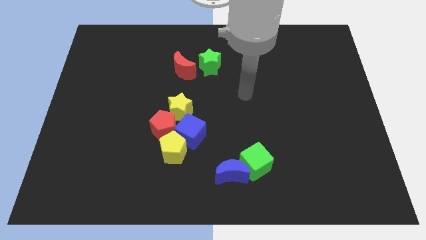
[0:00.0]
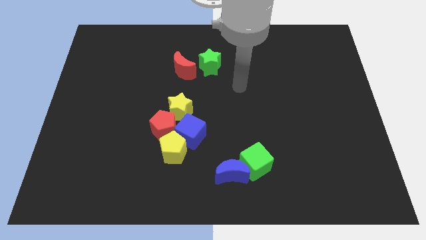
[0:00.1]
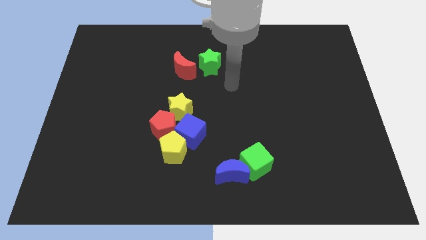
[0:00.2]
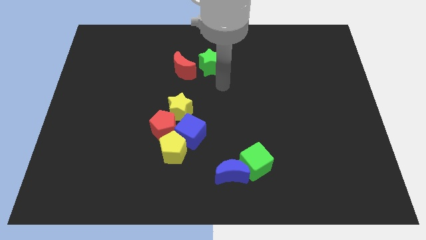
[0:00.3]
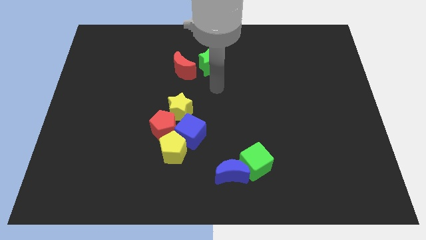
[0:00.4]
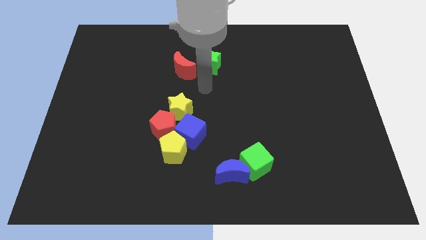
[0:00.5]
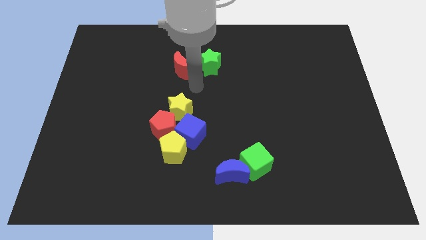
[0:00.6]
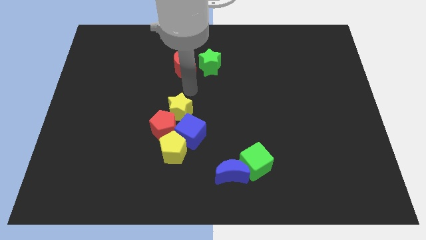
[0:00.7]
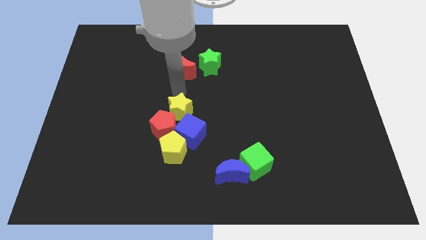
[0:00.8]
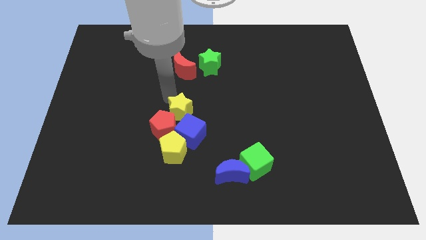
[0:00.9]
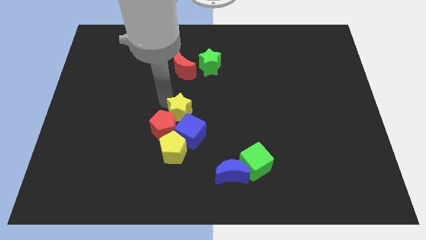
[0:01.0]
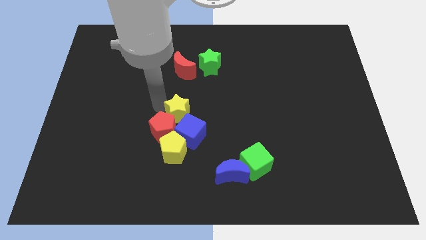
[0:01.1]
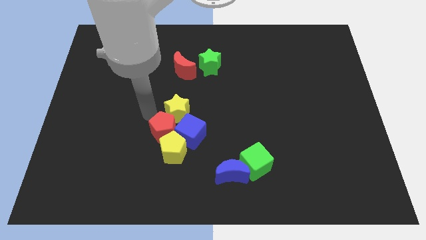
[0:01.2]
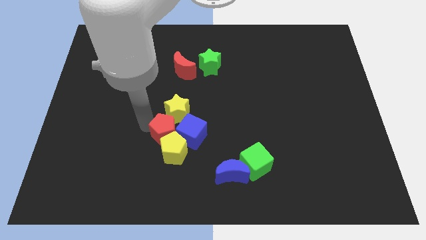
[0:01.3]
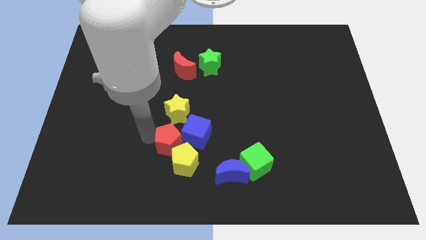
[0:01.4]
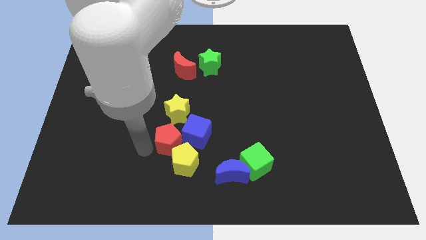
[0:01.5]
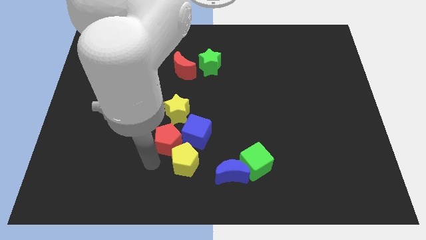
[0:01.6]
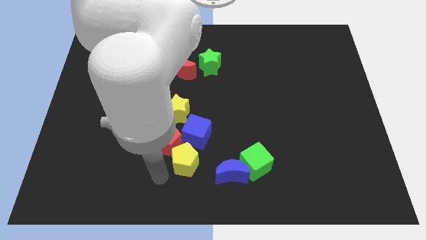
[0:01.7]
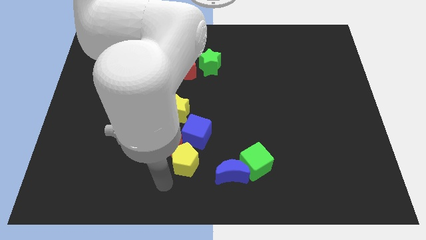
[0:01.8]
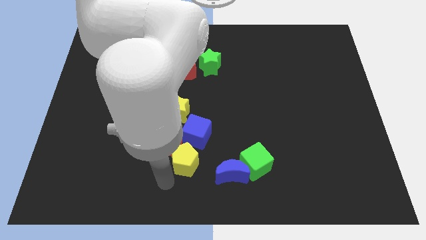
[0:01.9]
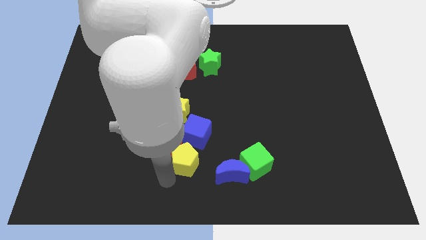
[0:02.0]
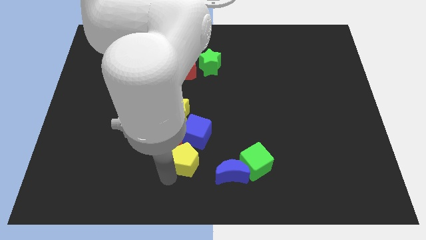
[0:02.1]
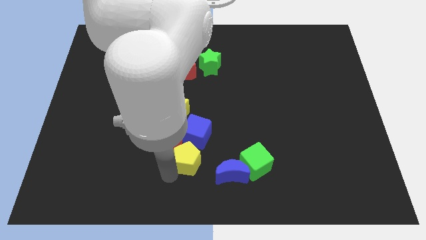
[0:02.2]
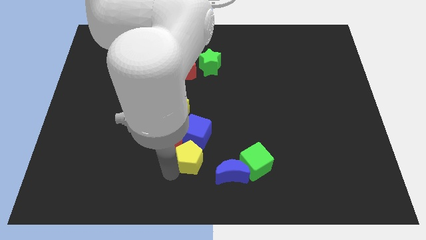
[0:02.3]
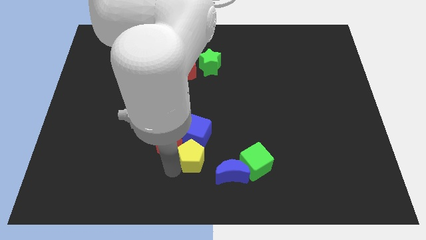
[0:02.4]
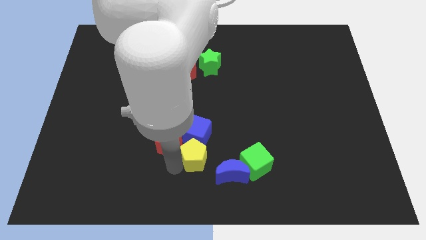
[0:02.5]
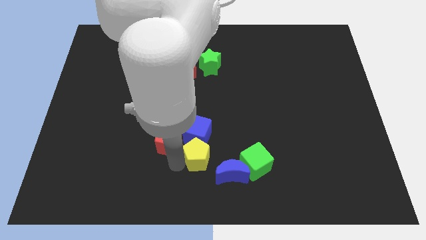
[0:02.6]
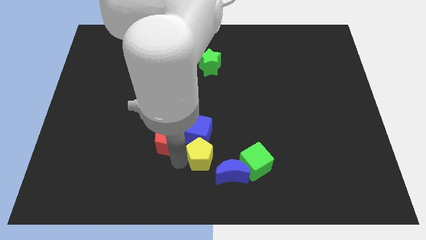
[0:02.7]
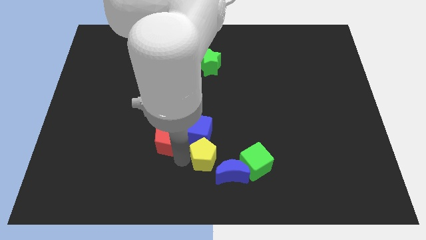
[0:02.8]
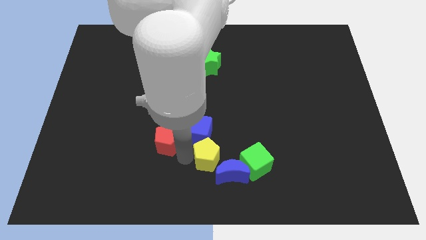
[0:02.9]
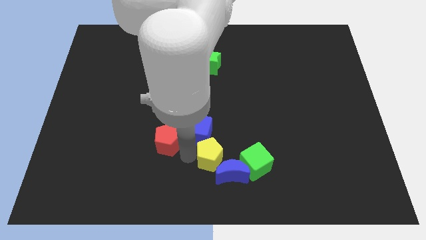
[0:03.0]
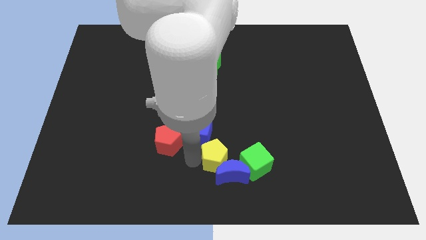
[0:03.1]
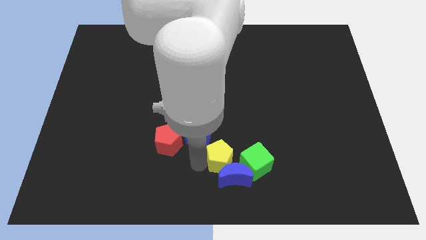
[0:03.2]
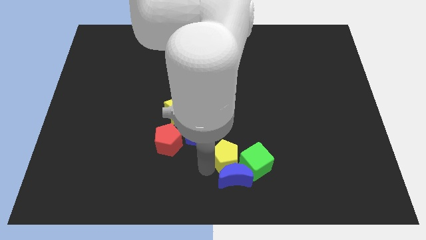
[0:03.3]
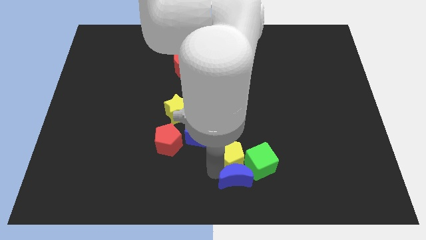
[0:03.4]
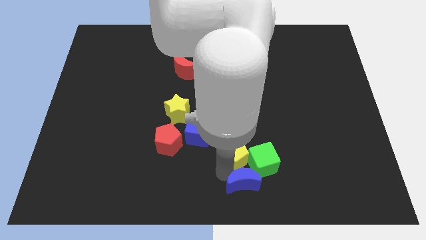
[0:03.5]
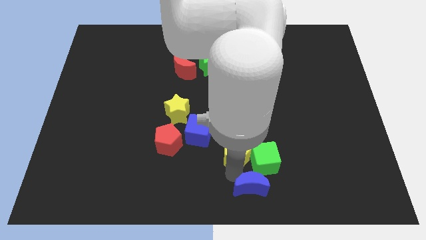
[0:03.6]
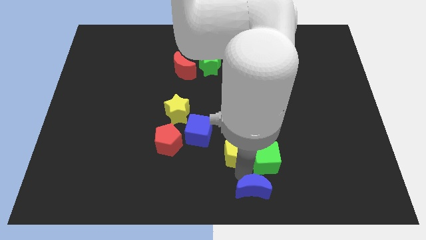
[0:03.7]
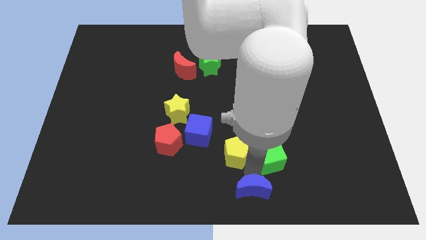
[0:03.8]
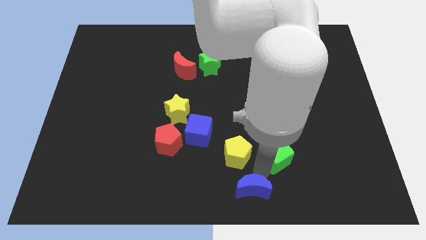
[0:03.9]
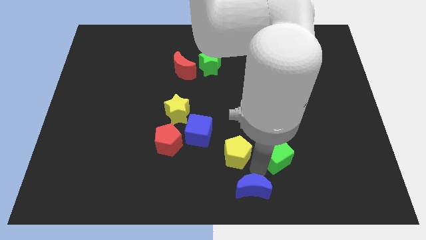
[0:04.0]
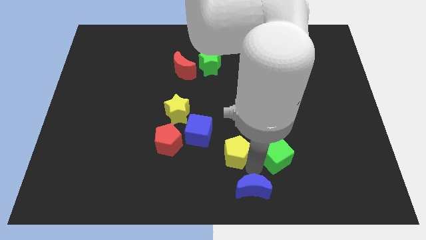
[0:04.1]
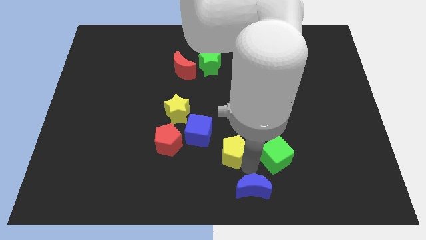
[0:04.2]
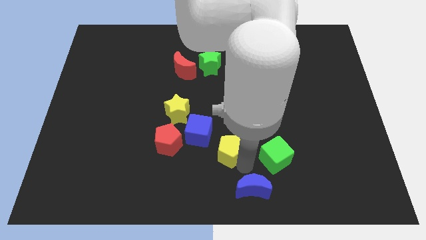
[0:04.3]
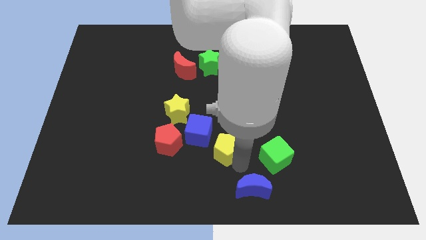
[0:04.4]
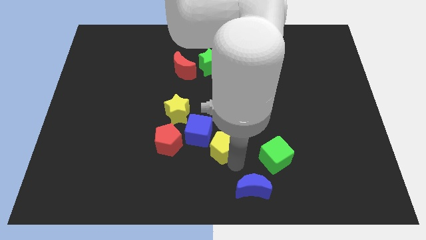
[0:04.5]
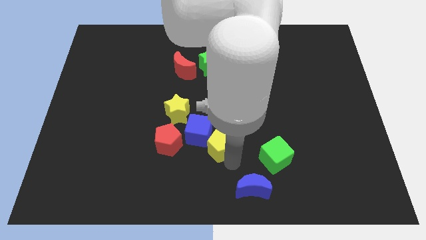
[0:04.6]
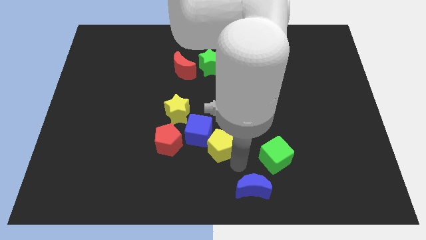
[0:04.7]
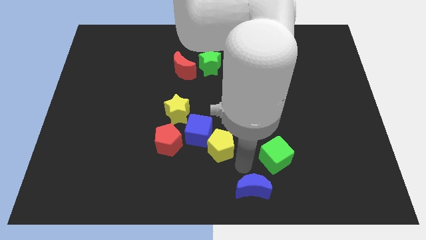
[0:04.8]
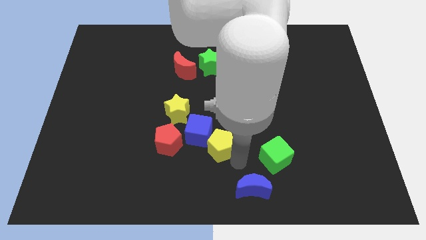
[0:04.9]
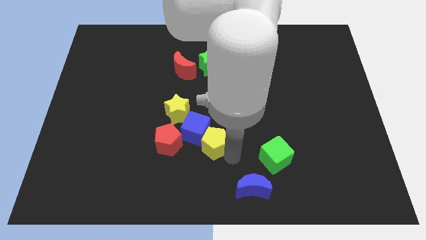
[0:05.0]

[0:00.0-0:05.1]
move the yellow pentagon to the bottom right side of the yellow star

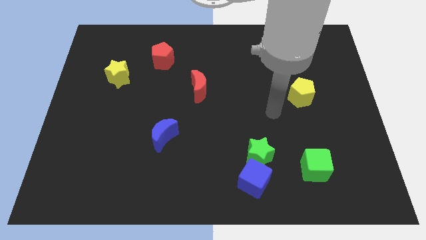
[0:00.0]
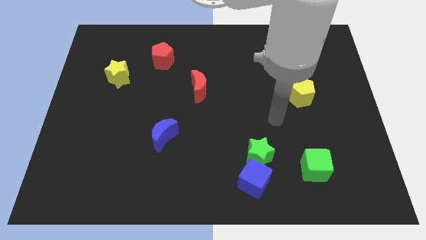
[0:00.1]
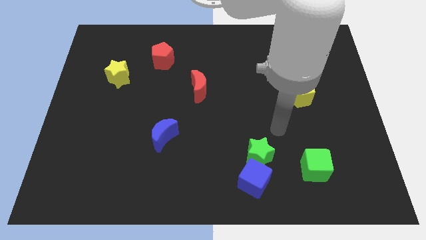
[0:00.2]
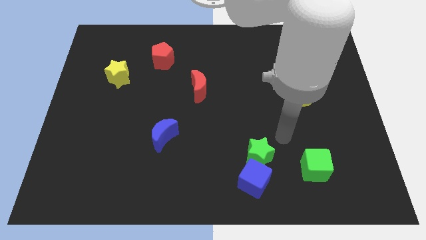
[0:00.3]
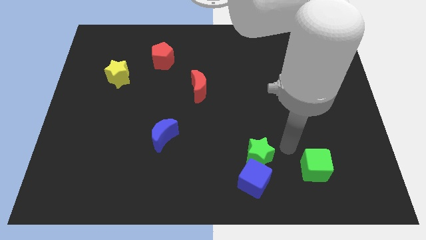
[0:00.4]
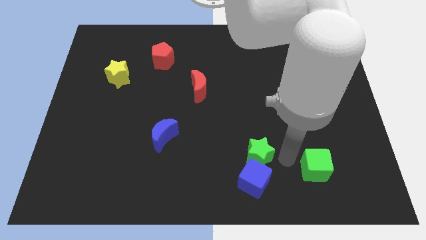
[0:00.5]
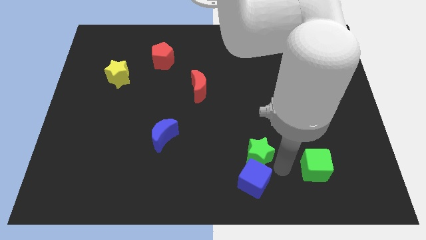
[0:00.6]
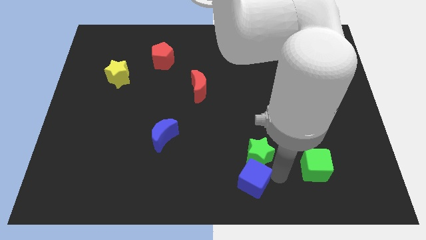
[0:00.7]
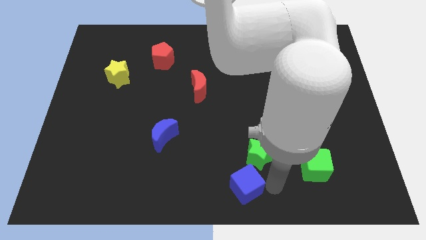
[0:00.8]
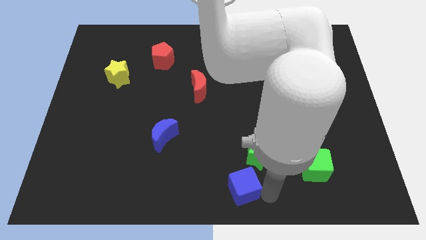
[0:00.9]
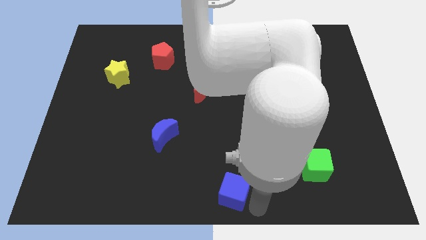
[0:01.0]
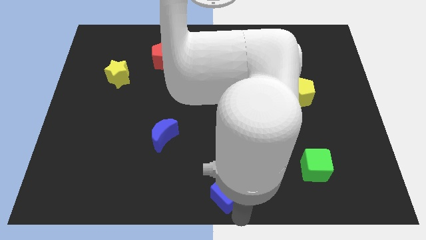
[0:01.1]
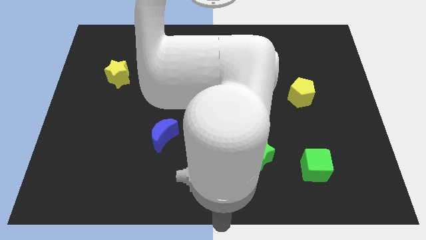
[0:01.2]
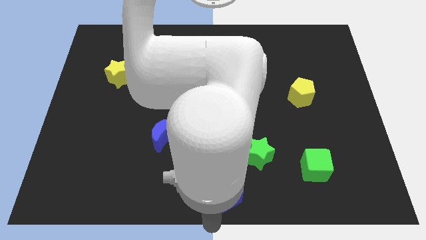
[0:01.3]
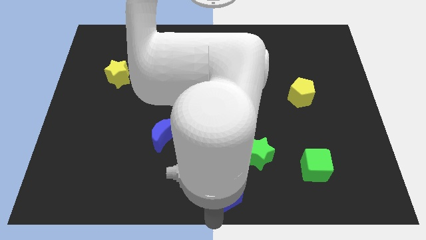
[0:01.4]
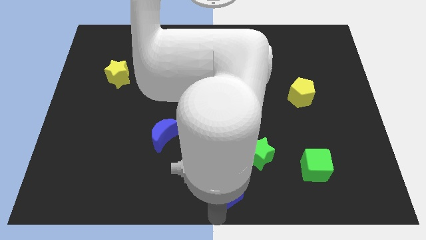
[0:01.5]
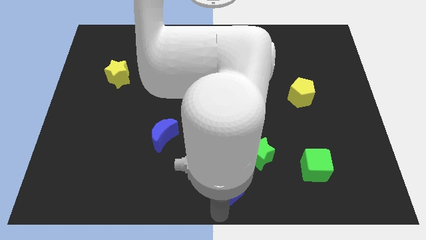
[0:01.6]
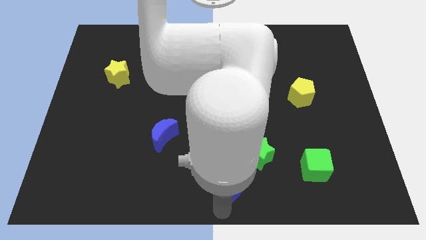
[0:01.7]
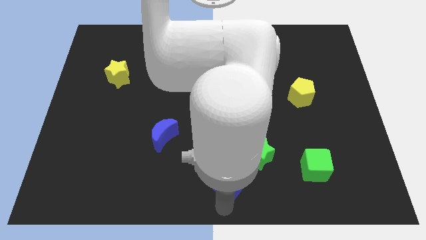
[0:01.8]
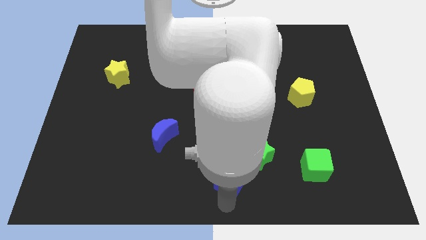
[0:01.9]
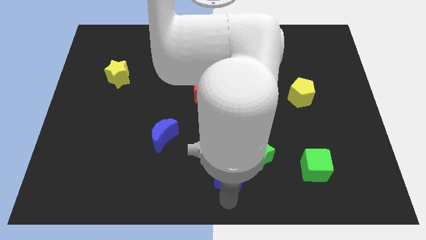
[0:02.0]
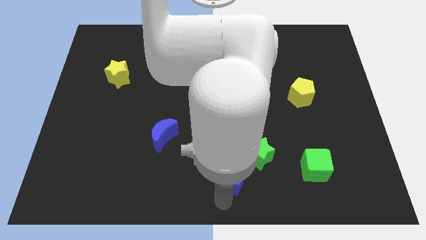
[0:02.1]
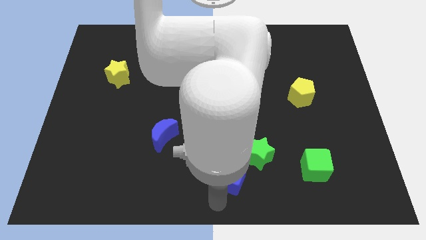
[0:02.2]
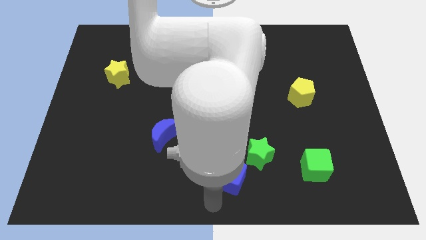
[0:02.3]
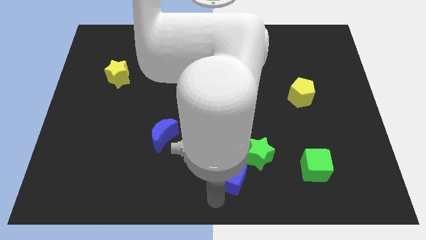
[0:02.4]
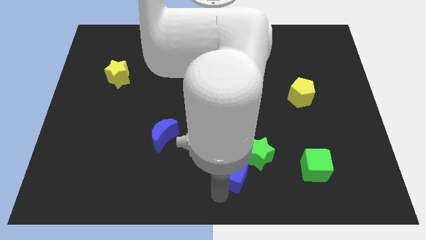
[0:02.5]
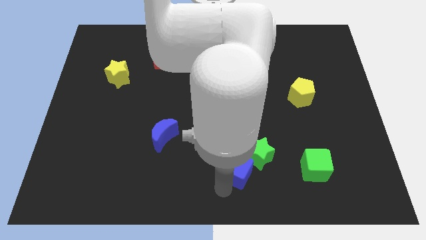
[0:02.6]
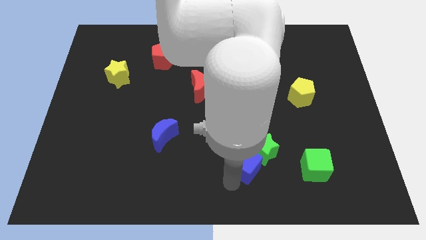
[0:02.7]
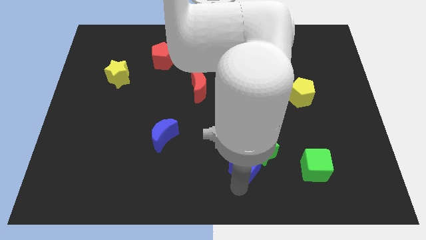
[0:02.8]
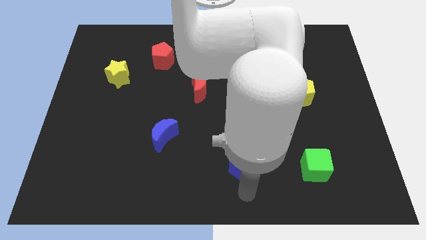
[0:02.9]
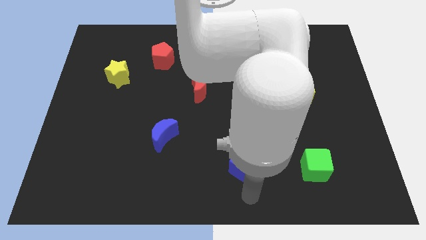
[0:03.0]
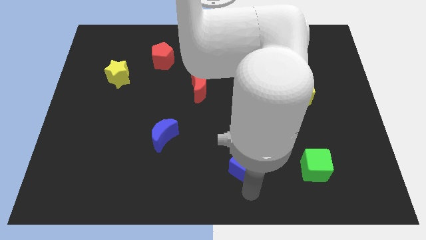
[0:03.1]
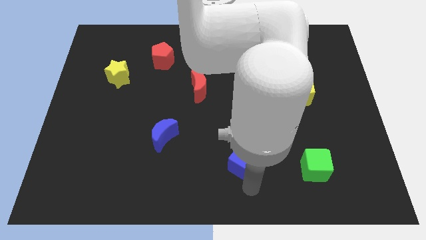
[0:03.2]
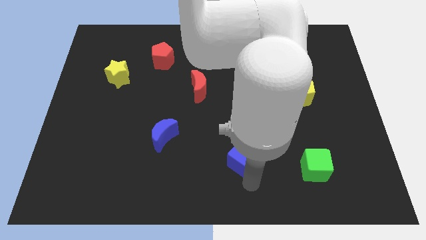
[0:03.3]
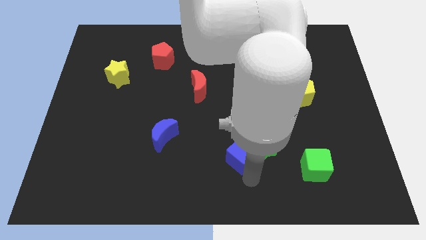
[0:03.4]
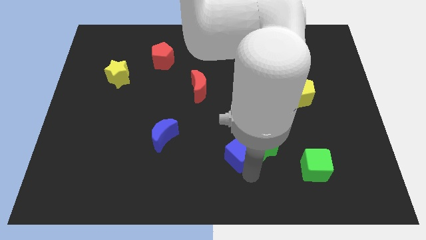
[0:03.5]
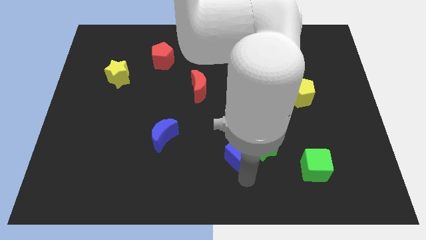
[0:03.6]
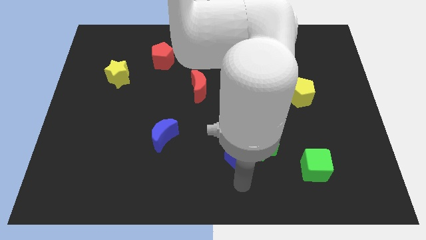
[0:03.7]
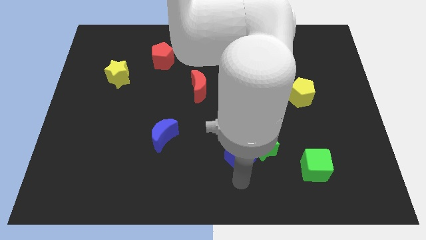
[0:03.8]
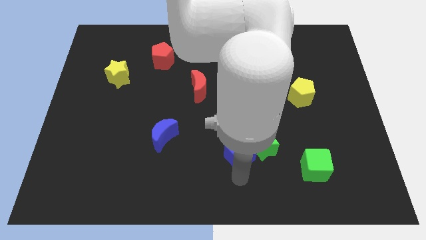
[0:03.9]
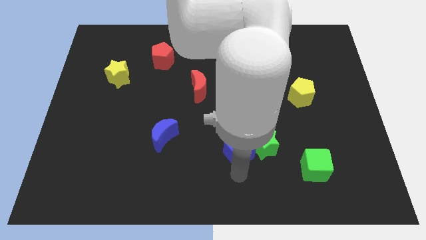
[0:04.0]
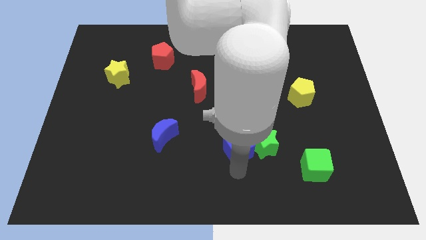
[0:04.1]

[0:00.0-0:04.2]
put the blue cube diagonally up and to the left of the green star
